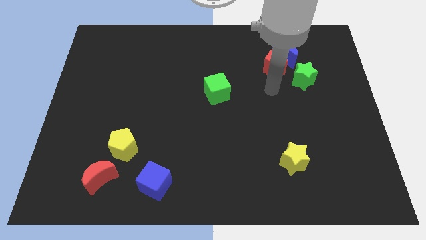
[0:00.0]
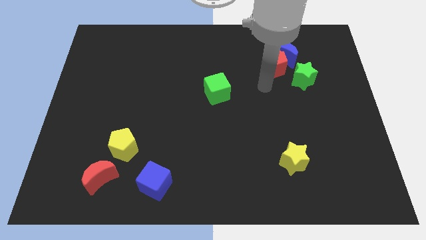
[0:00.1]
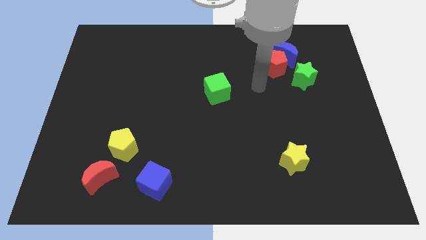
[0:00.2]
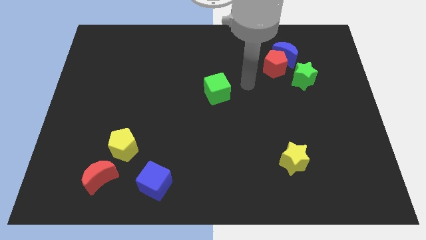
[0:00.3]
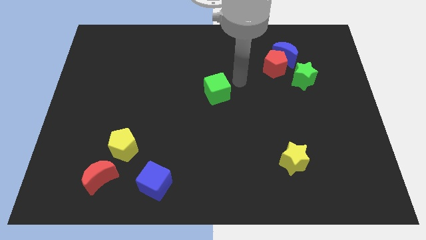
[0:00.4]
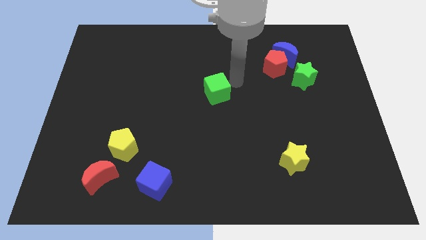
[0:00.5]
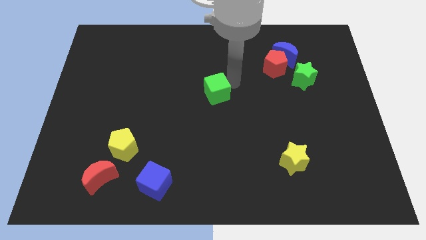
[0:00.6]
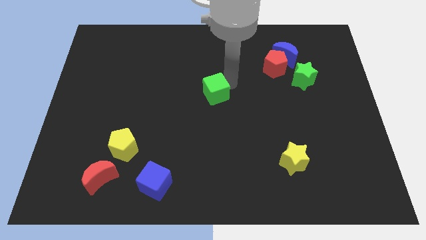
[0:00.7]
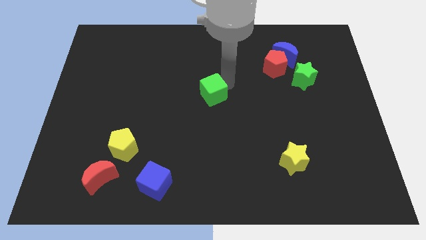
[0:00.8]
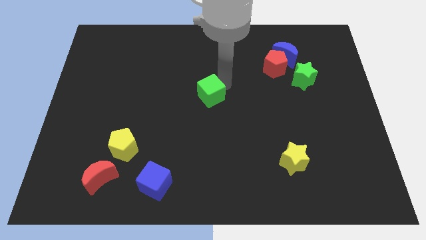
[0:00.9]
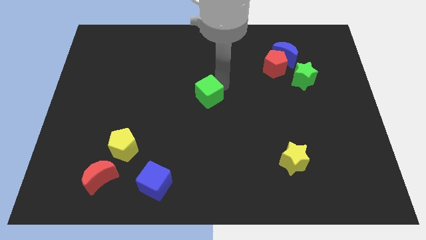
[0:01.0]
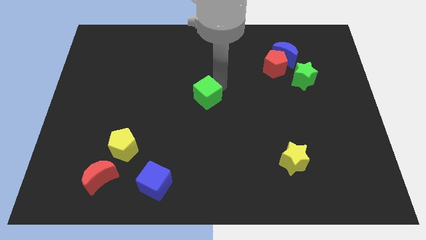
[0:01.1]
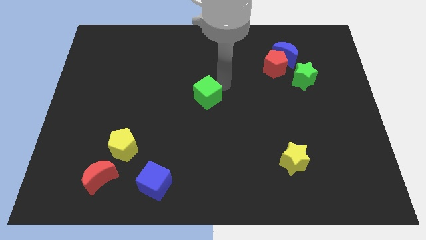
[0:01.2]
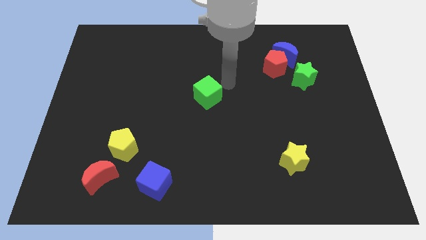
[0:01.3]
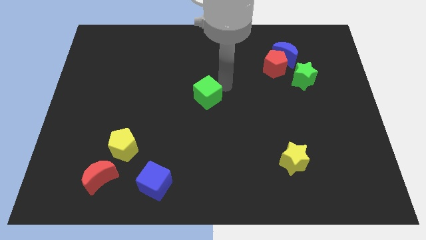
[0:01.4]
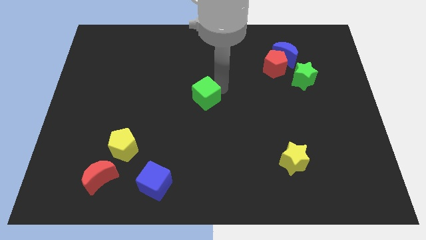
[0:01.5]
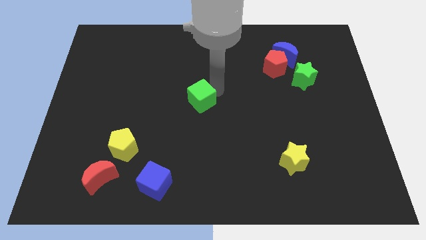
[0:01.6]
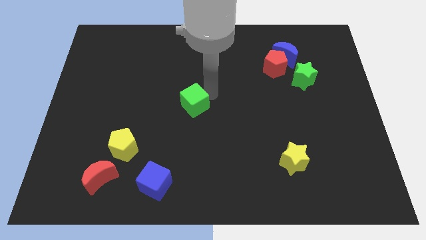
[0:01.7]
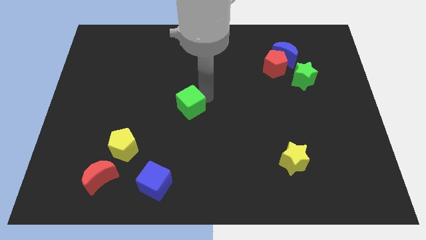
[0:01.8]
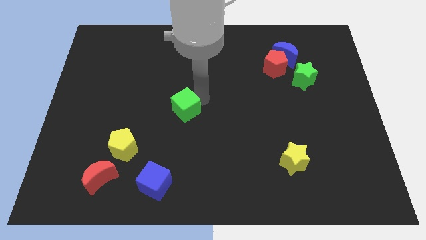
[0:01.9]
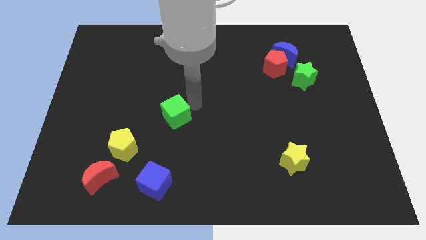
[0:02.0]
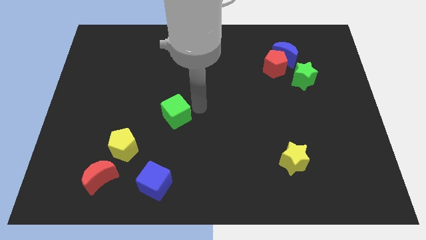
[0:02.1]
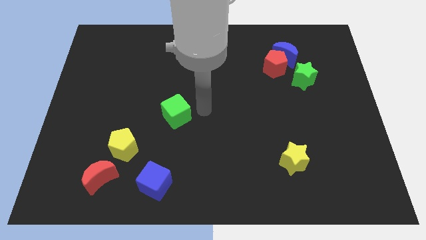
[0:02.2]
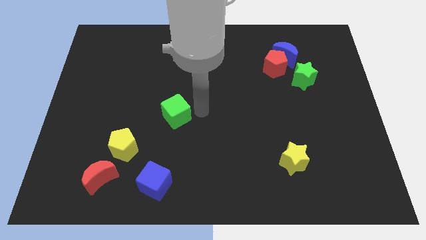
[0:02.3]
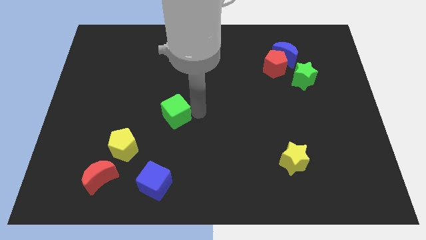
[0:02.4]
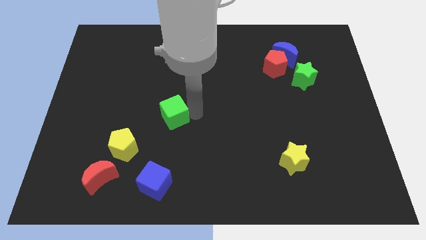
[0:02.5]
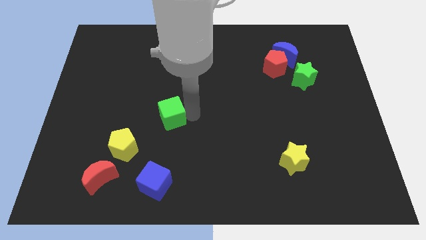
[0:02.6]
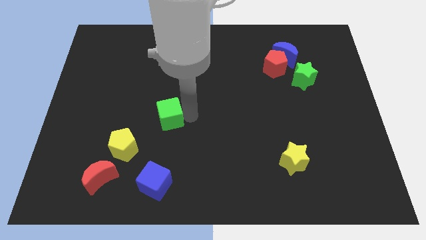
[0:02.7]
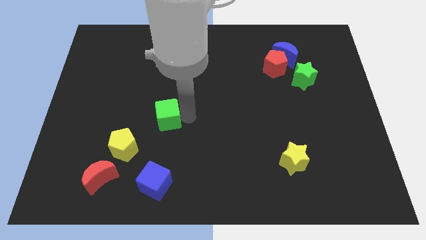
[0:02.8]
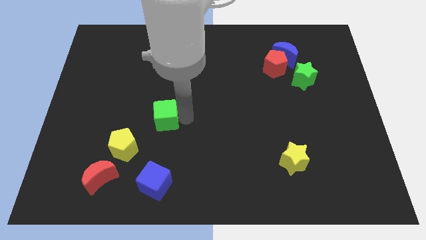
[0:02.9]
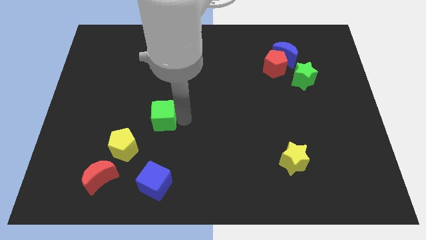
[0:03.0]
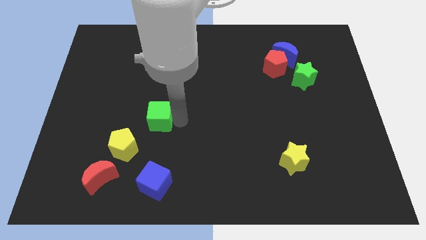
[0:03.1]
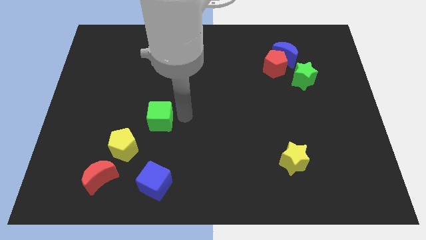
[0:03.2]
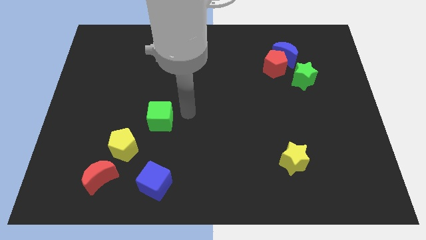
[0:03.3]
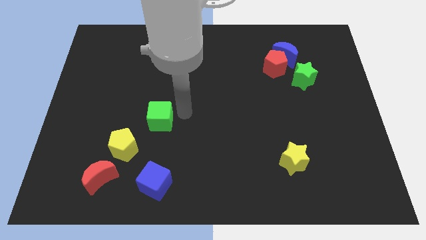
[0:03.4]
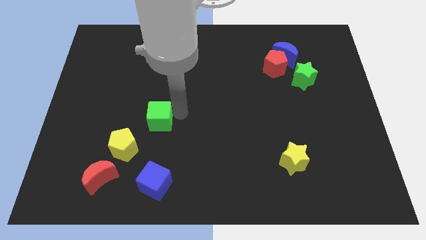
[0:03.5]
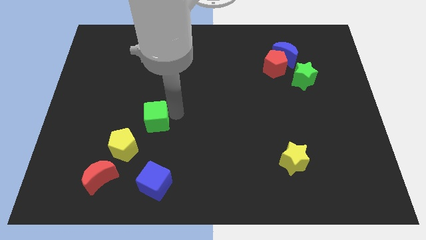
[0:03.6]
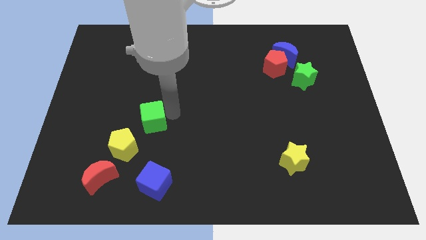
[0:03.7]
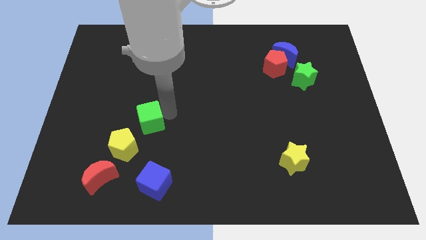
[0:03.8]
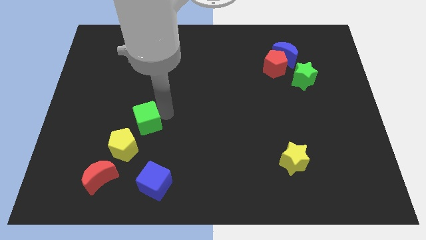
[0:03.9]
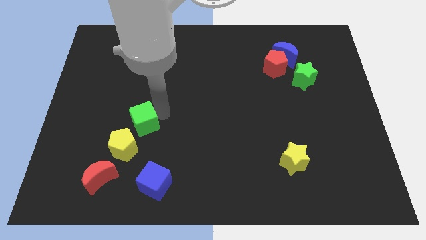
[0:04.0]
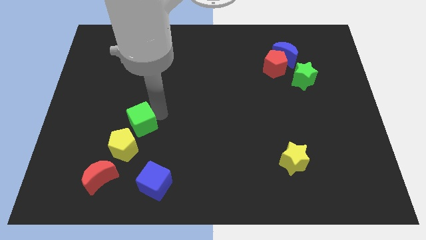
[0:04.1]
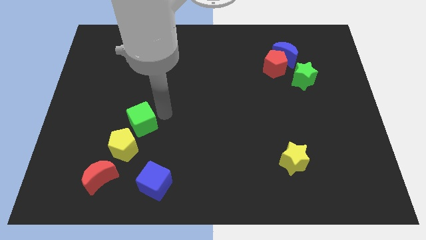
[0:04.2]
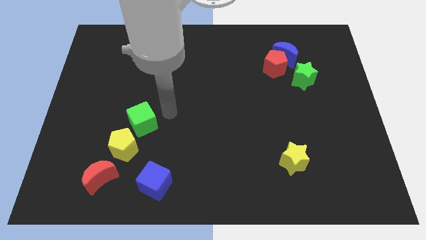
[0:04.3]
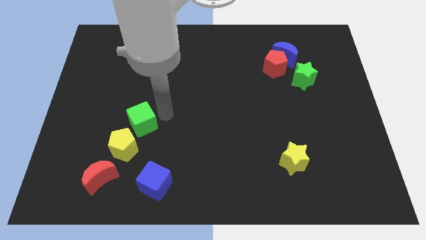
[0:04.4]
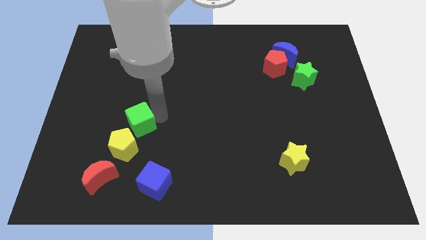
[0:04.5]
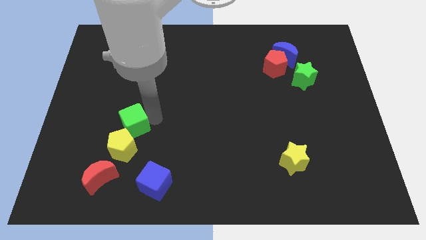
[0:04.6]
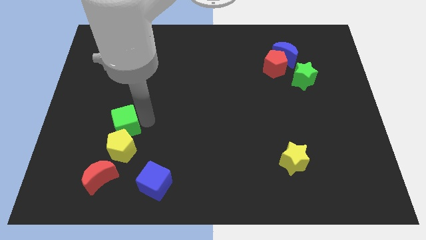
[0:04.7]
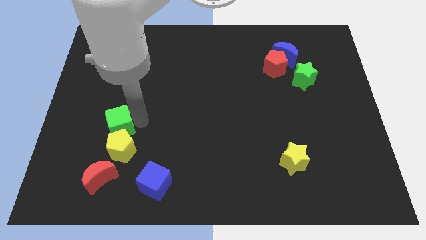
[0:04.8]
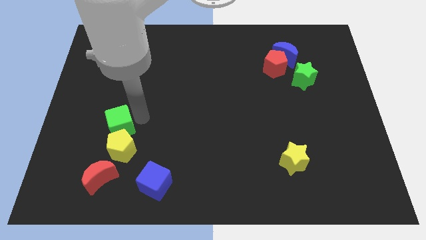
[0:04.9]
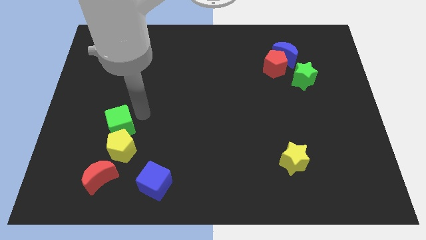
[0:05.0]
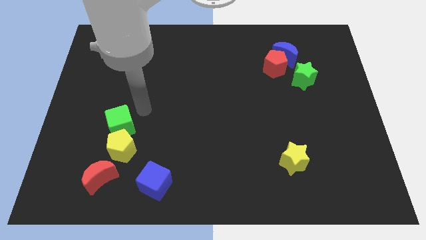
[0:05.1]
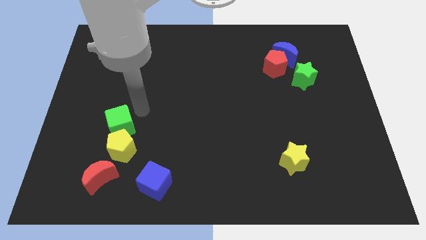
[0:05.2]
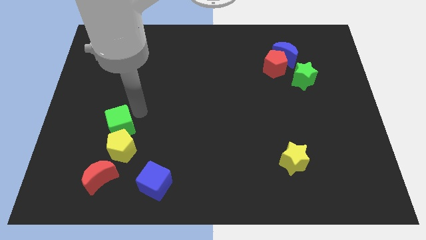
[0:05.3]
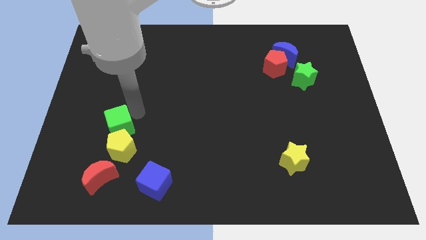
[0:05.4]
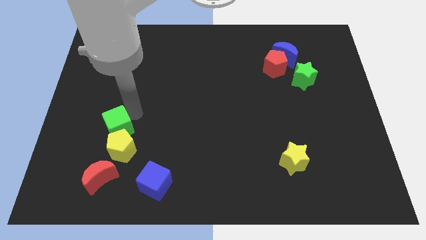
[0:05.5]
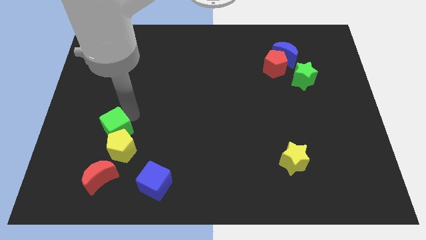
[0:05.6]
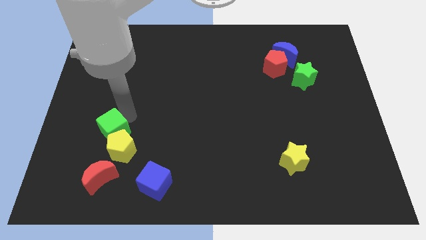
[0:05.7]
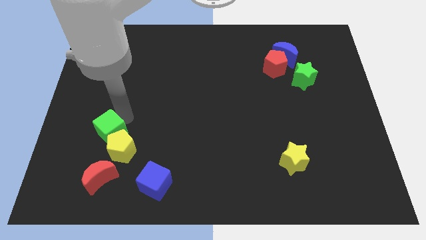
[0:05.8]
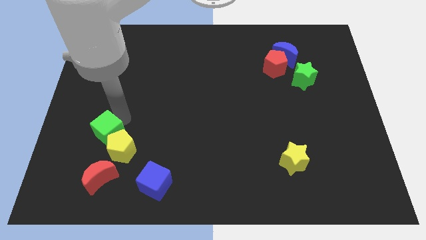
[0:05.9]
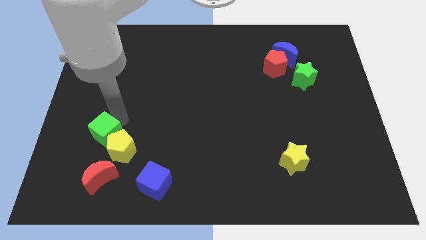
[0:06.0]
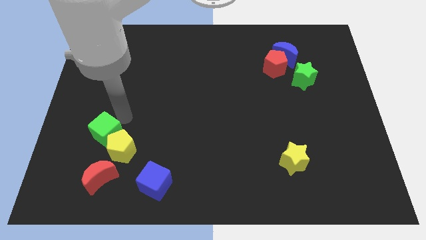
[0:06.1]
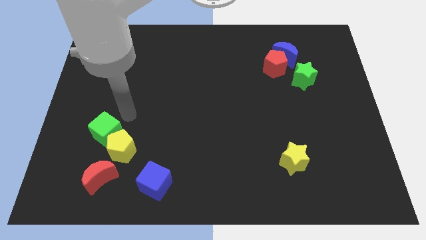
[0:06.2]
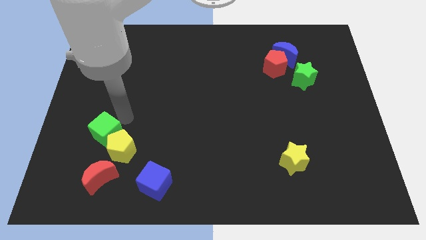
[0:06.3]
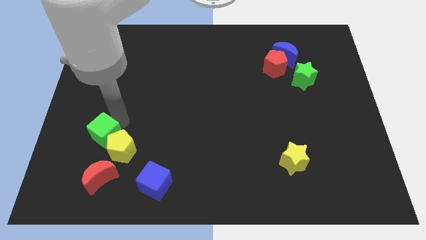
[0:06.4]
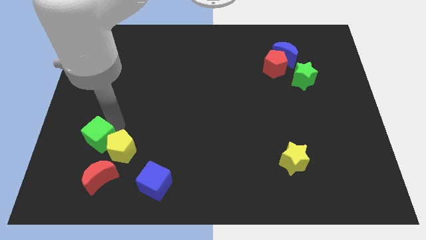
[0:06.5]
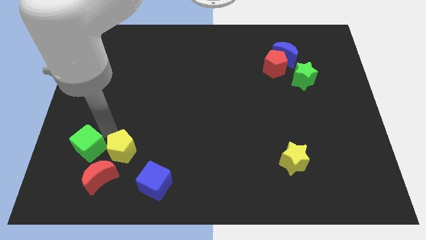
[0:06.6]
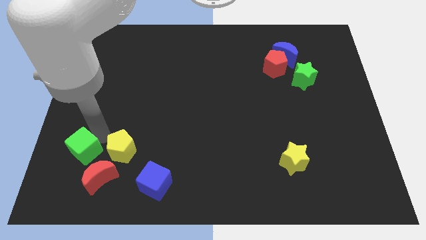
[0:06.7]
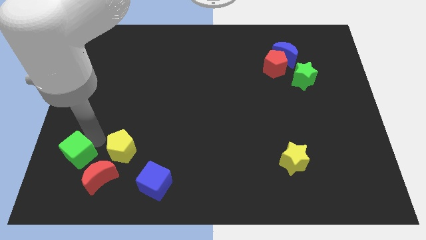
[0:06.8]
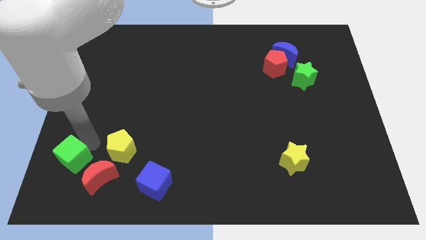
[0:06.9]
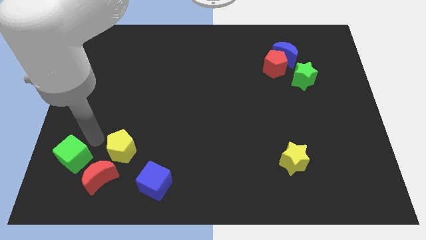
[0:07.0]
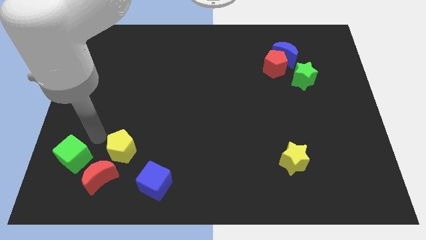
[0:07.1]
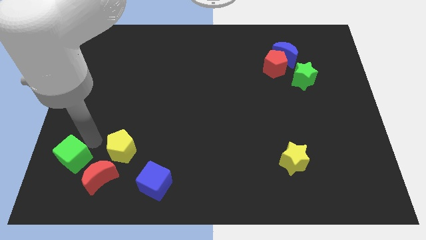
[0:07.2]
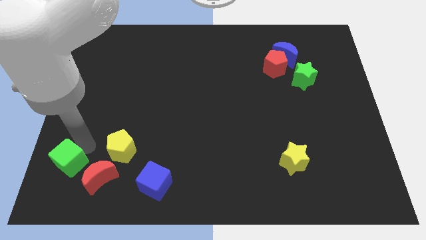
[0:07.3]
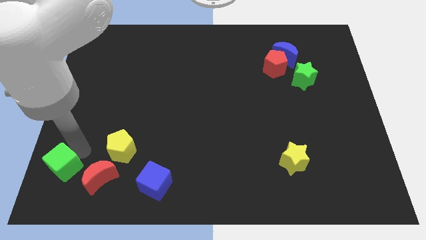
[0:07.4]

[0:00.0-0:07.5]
push the green cube to the bottom left
